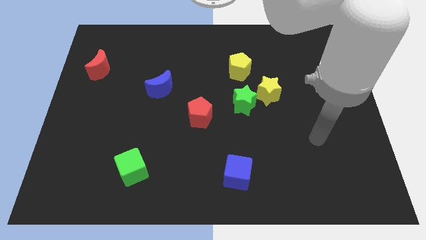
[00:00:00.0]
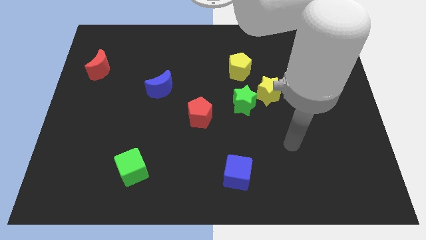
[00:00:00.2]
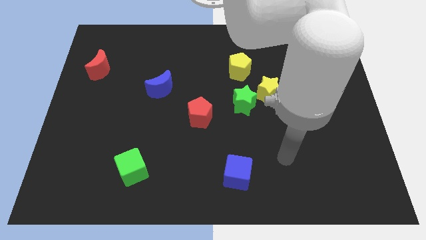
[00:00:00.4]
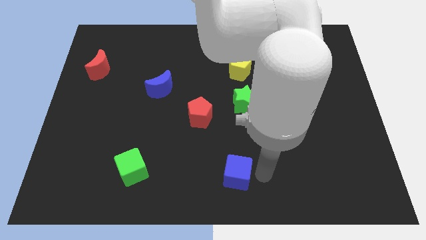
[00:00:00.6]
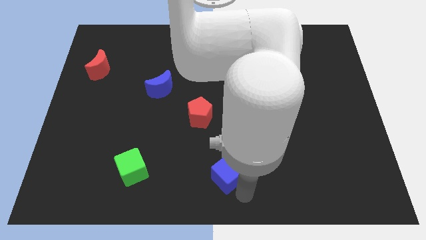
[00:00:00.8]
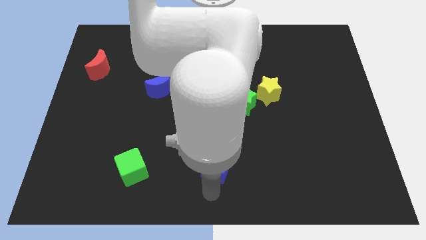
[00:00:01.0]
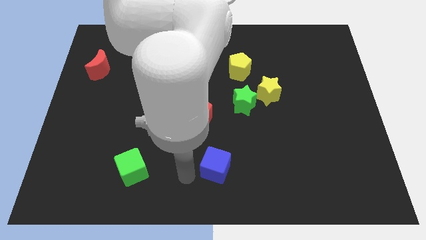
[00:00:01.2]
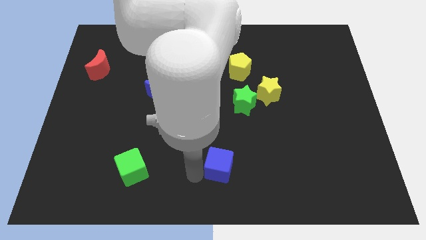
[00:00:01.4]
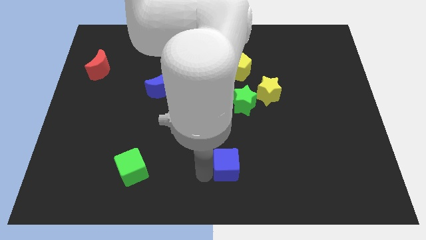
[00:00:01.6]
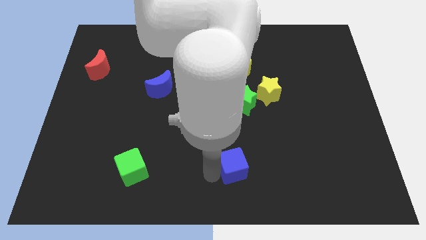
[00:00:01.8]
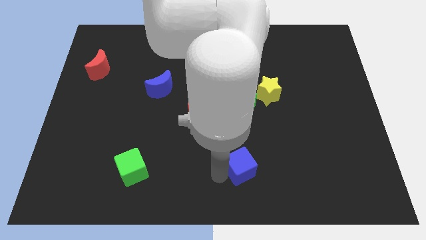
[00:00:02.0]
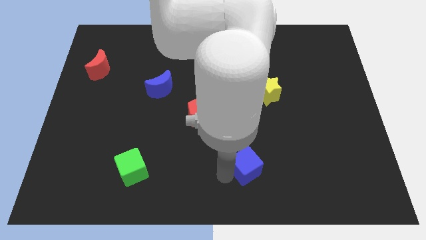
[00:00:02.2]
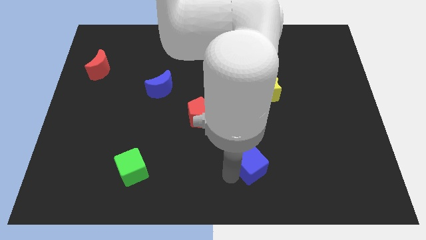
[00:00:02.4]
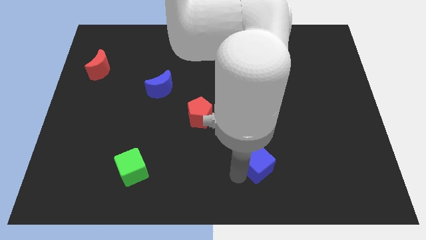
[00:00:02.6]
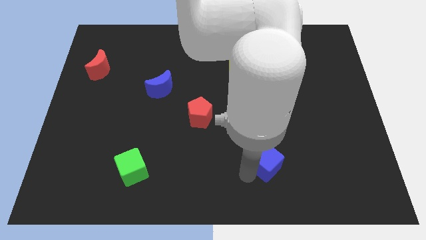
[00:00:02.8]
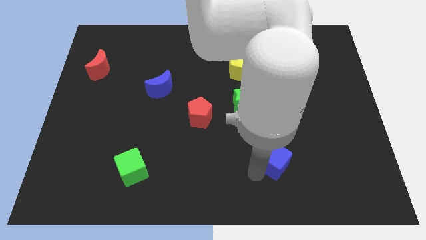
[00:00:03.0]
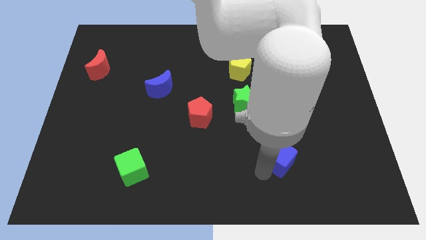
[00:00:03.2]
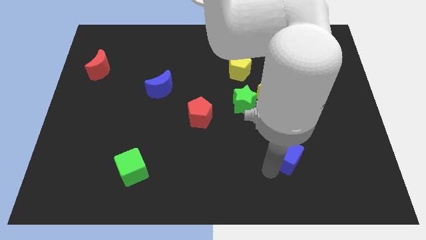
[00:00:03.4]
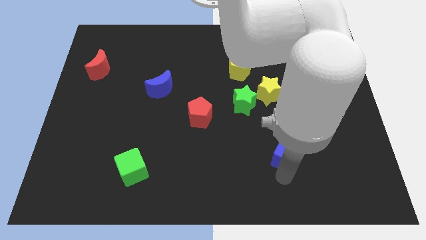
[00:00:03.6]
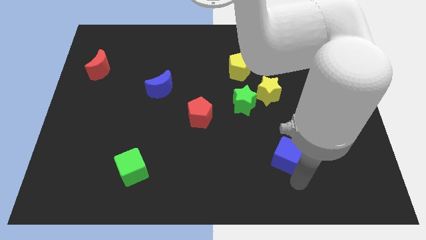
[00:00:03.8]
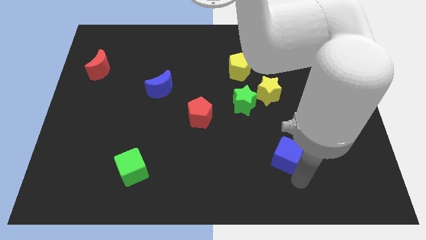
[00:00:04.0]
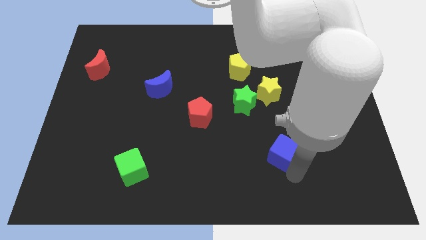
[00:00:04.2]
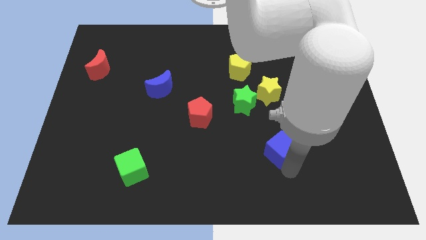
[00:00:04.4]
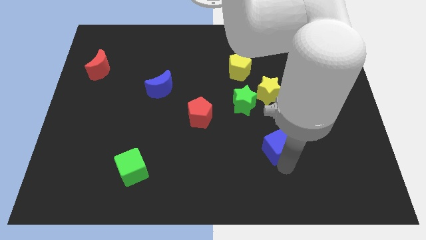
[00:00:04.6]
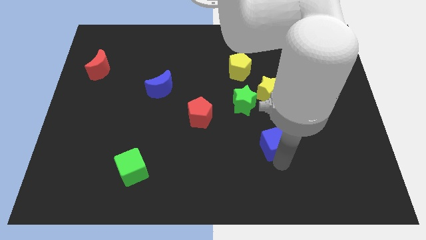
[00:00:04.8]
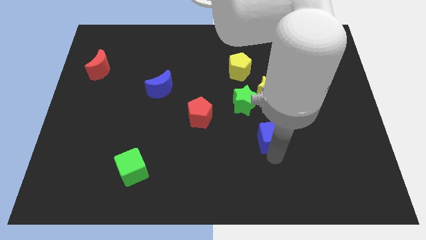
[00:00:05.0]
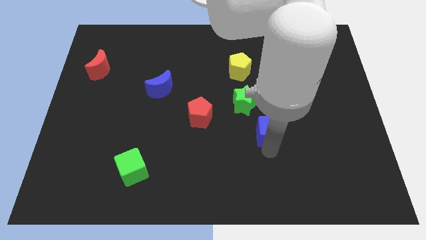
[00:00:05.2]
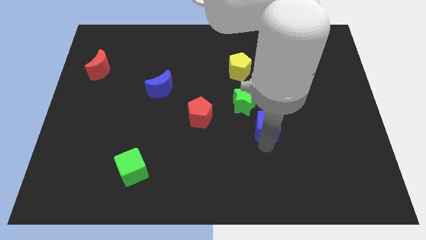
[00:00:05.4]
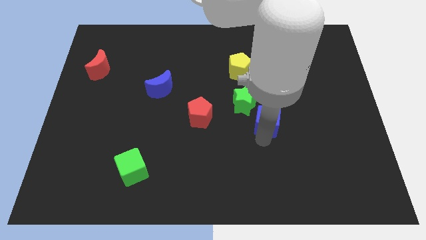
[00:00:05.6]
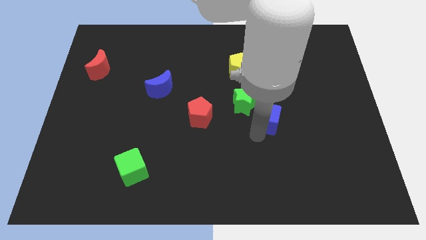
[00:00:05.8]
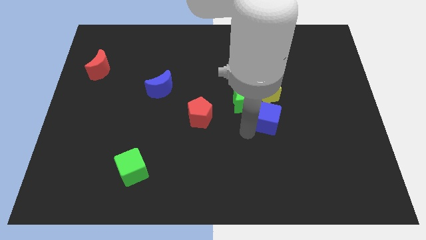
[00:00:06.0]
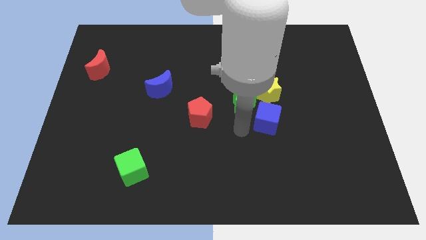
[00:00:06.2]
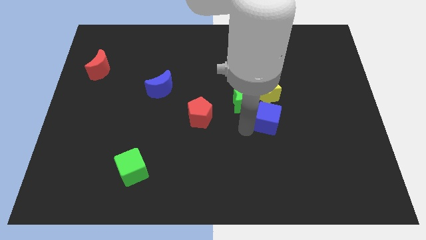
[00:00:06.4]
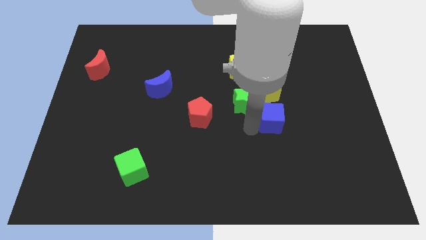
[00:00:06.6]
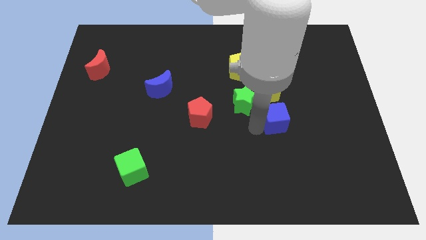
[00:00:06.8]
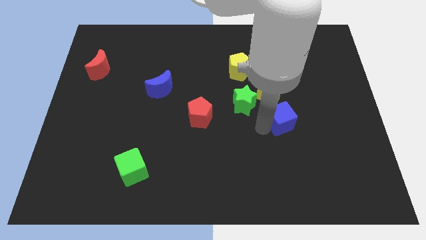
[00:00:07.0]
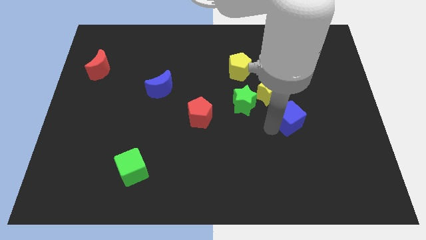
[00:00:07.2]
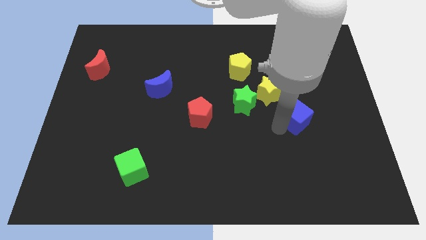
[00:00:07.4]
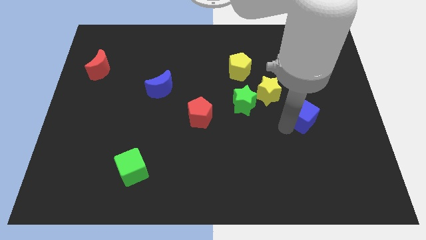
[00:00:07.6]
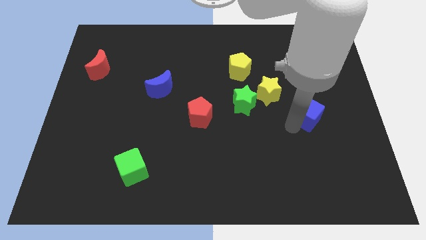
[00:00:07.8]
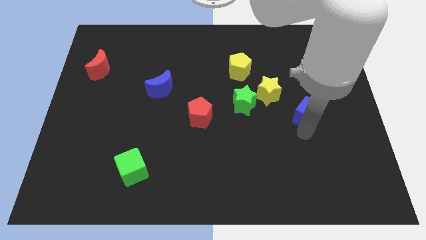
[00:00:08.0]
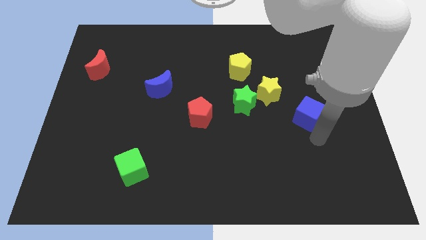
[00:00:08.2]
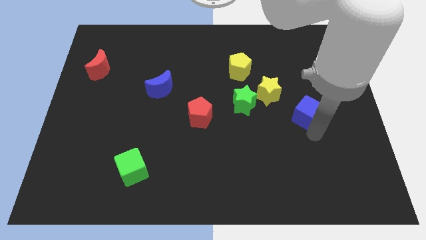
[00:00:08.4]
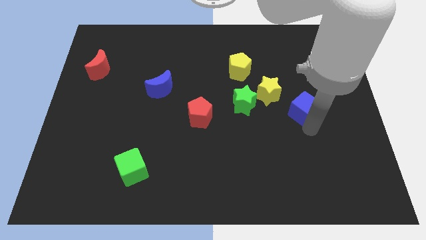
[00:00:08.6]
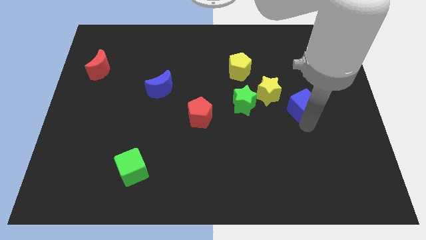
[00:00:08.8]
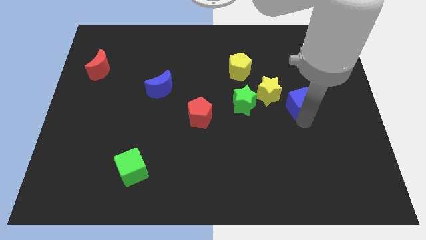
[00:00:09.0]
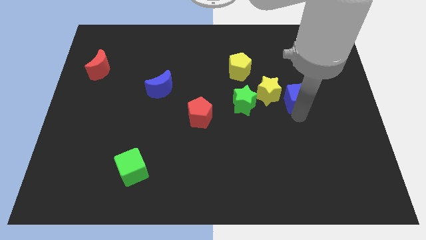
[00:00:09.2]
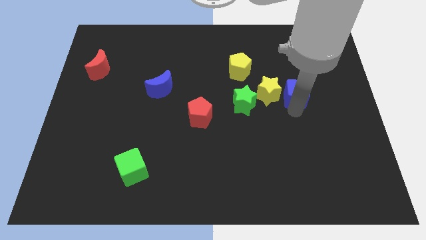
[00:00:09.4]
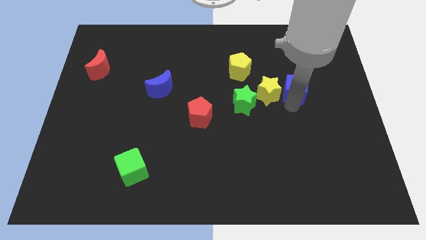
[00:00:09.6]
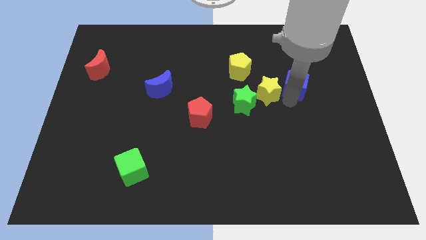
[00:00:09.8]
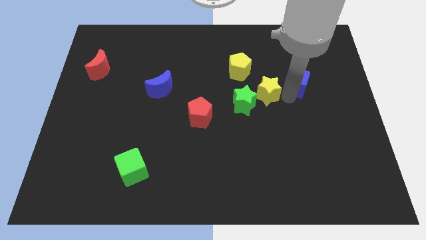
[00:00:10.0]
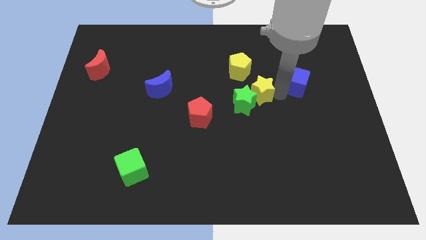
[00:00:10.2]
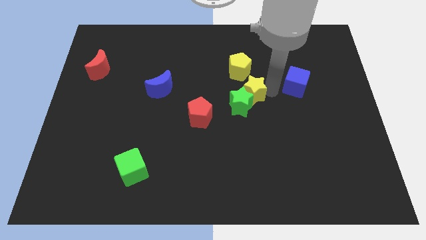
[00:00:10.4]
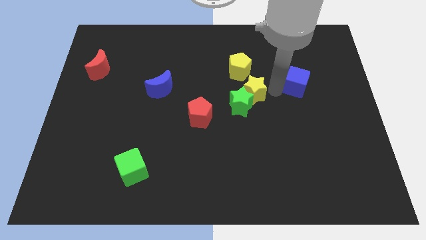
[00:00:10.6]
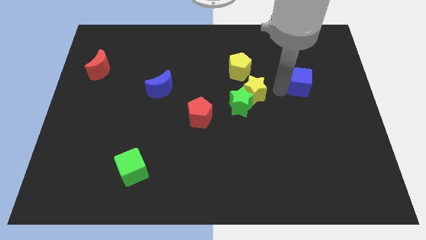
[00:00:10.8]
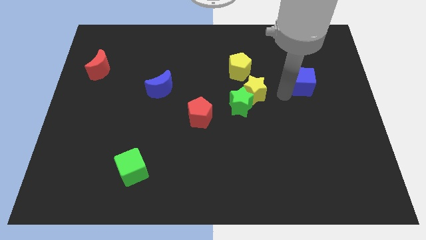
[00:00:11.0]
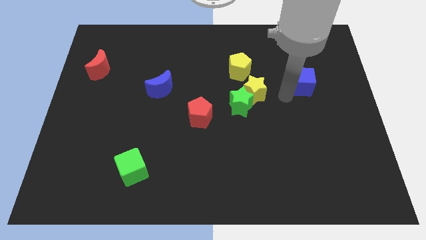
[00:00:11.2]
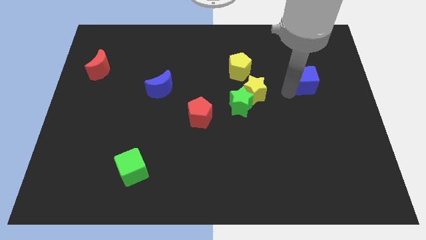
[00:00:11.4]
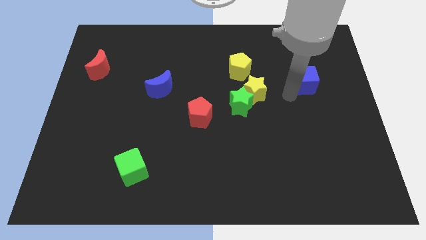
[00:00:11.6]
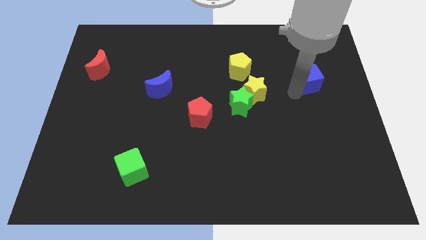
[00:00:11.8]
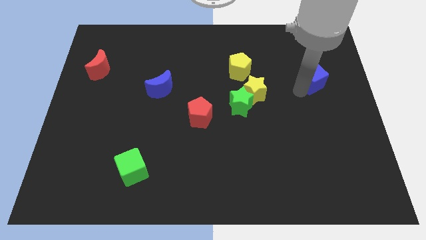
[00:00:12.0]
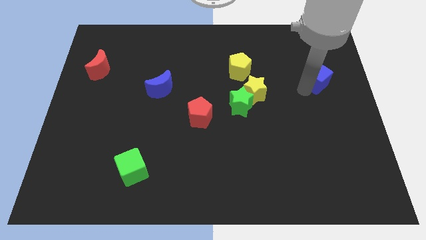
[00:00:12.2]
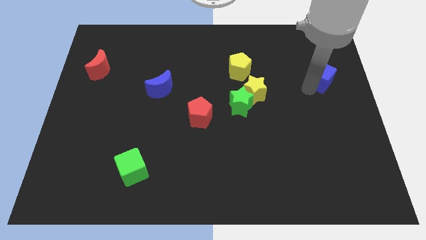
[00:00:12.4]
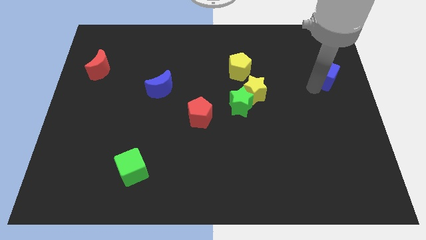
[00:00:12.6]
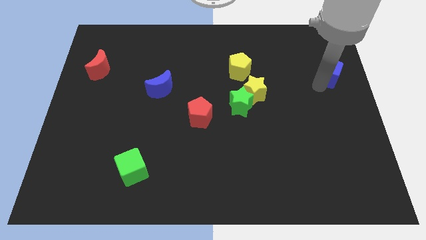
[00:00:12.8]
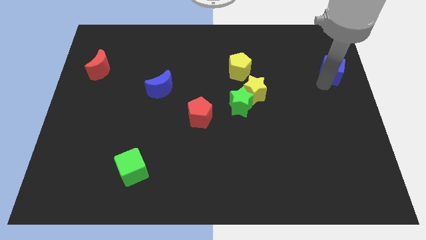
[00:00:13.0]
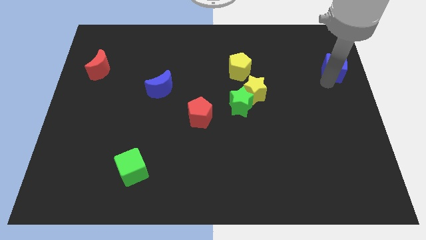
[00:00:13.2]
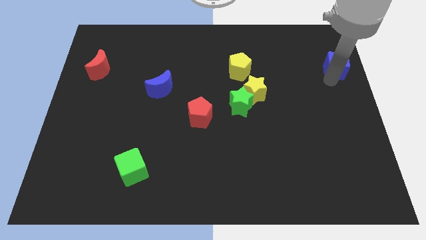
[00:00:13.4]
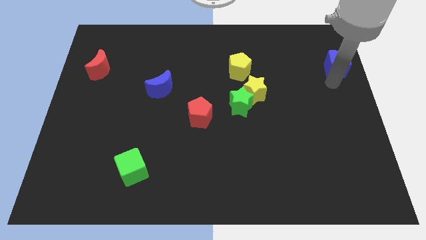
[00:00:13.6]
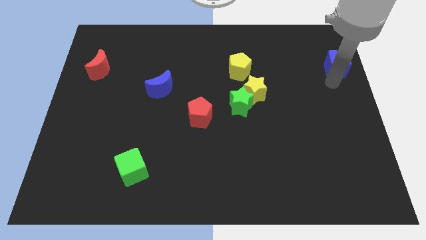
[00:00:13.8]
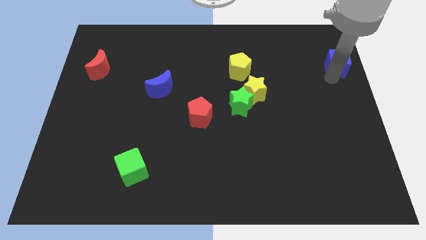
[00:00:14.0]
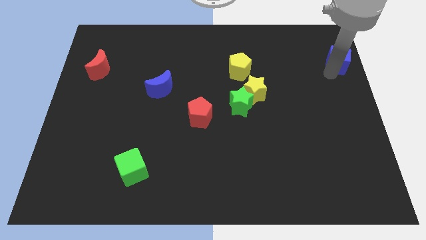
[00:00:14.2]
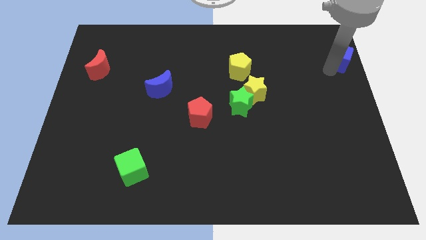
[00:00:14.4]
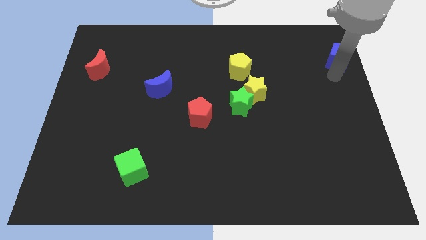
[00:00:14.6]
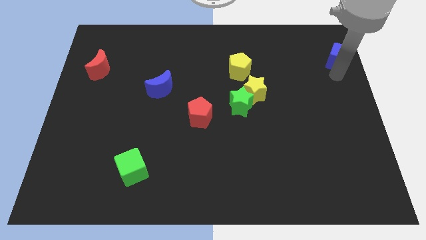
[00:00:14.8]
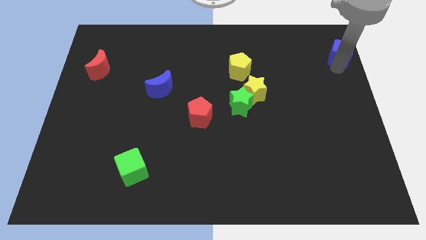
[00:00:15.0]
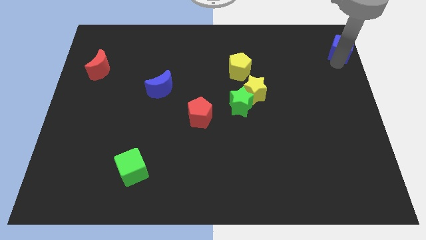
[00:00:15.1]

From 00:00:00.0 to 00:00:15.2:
put the blue cube to the top right corner
